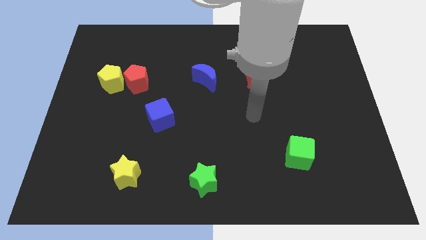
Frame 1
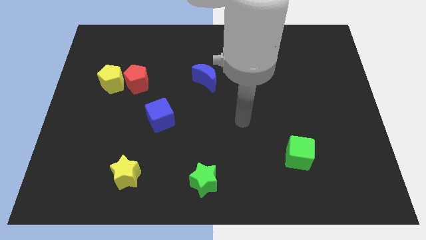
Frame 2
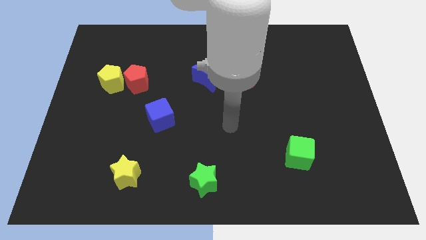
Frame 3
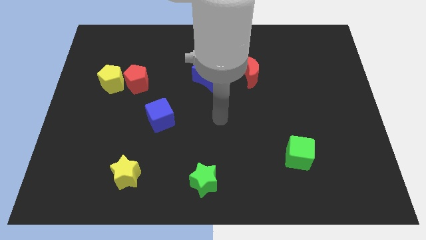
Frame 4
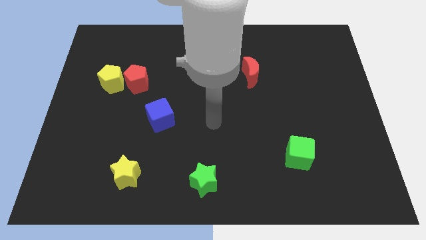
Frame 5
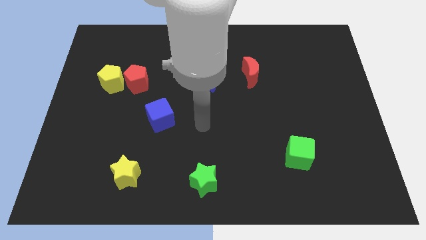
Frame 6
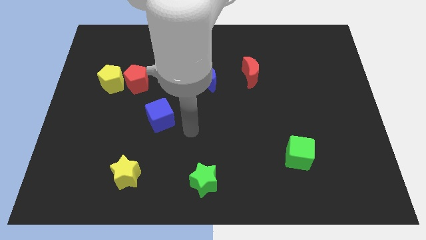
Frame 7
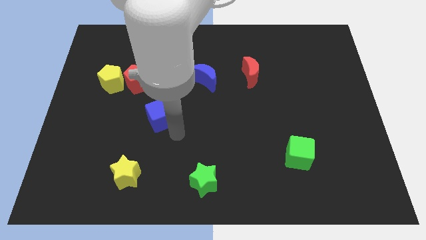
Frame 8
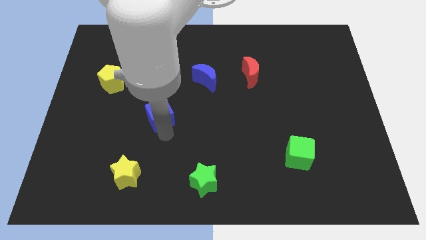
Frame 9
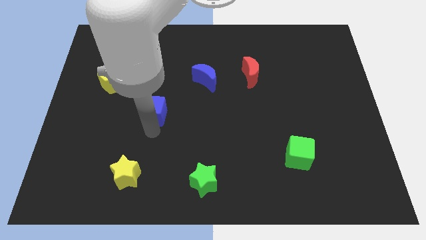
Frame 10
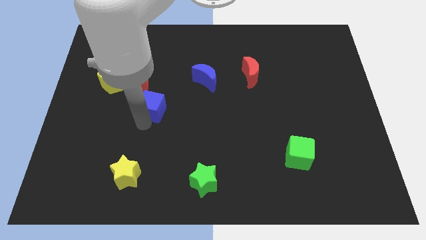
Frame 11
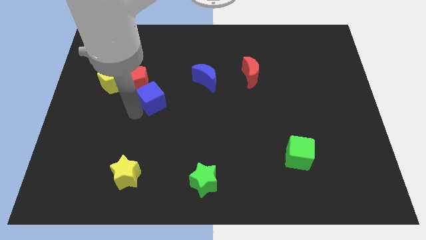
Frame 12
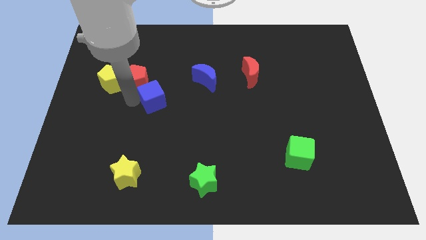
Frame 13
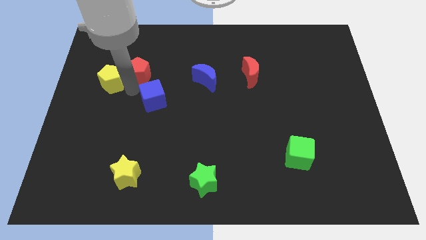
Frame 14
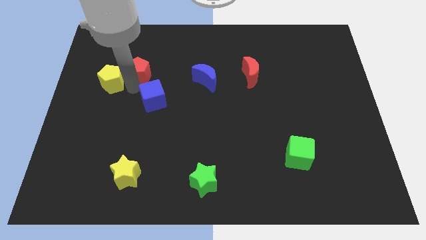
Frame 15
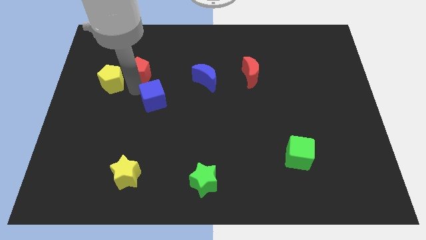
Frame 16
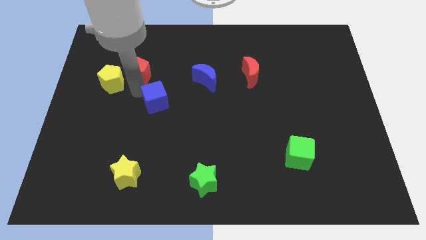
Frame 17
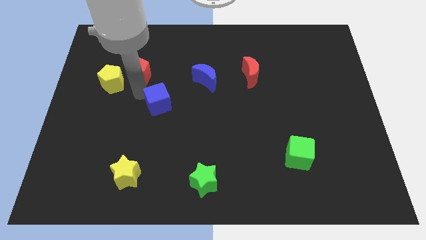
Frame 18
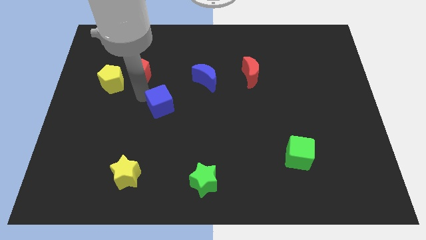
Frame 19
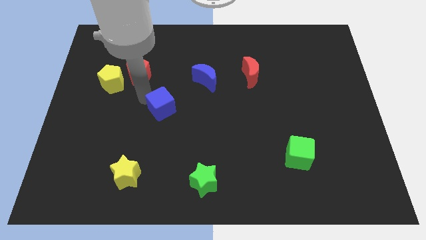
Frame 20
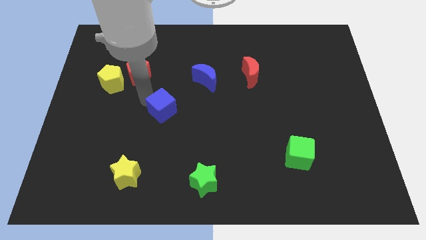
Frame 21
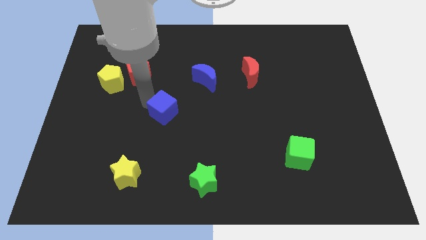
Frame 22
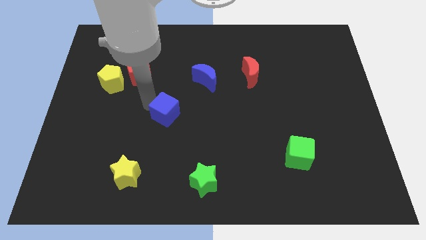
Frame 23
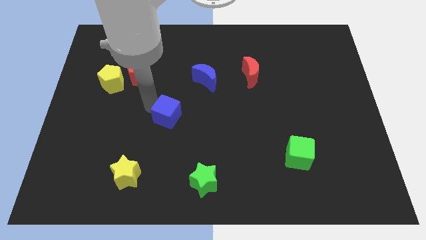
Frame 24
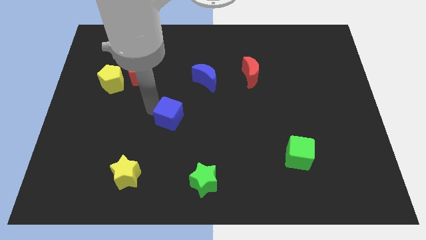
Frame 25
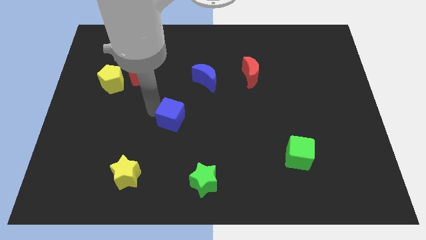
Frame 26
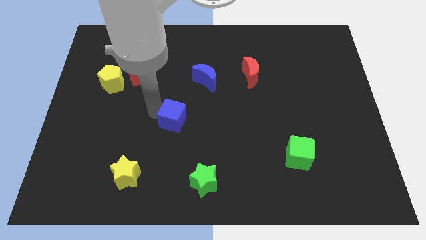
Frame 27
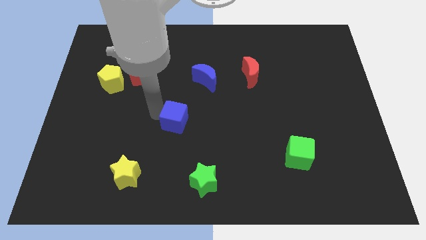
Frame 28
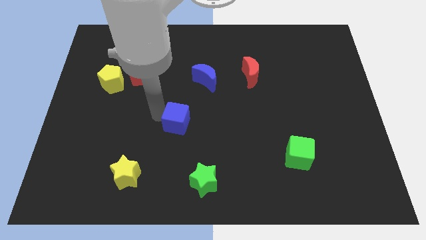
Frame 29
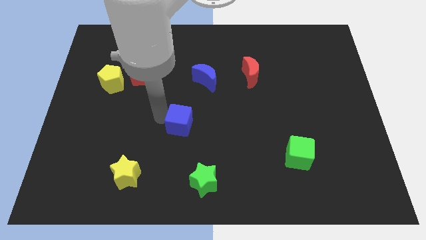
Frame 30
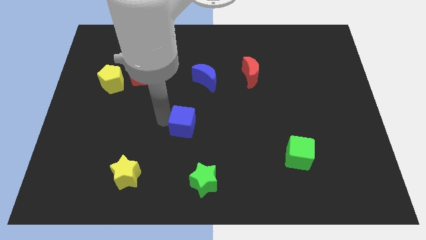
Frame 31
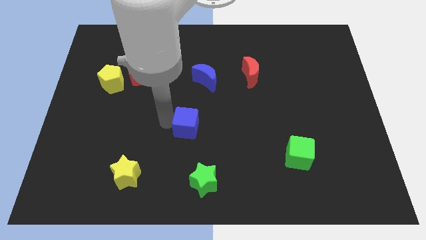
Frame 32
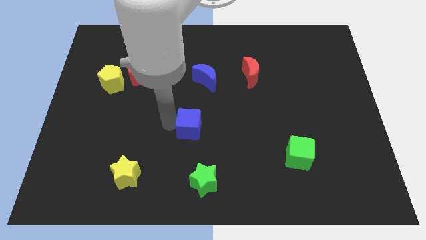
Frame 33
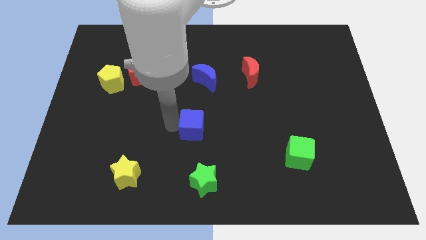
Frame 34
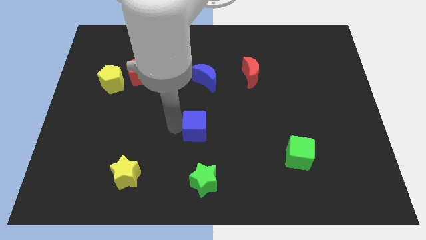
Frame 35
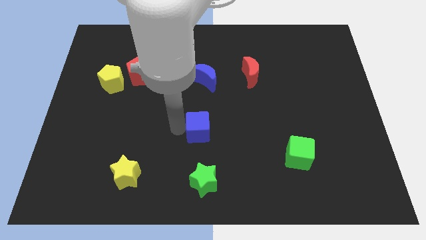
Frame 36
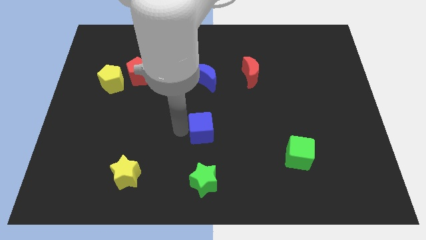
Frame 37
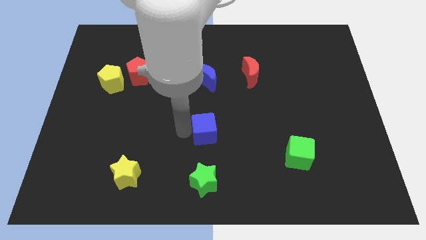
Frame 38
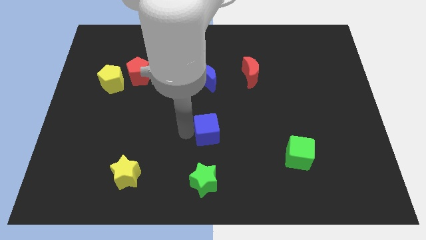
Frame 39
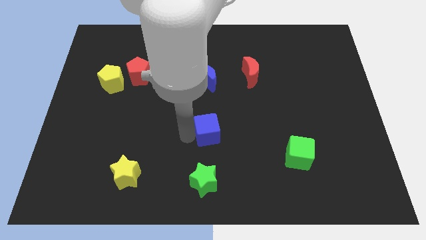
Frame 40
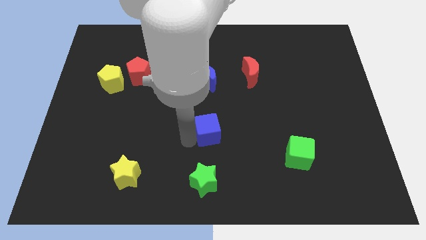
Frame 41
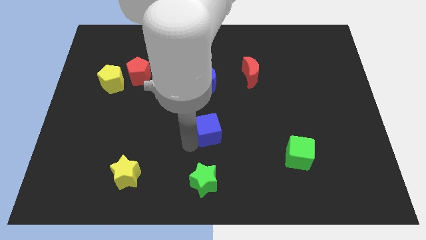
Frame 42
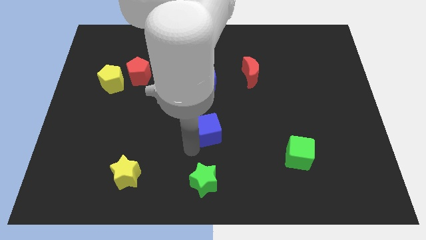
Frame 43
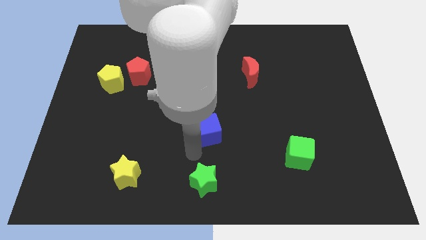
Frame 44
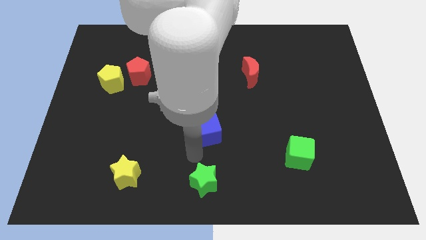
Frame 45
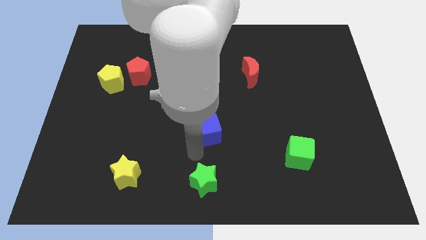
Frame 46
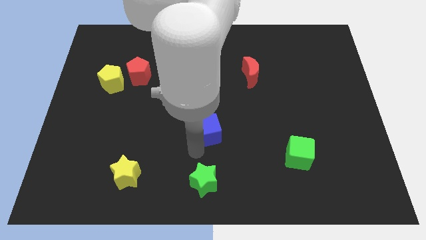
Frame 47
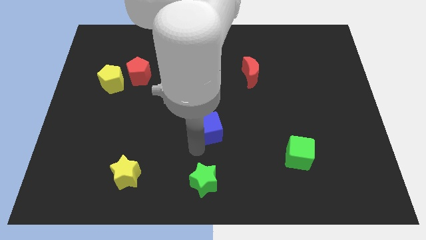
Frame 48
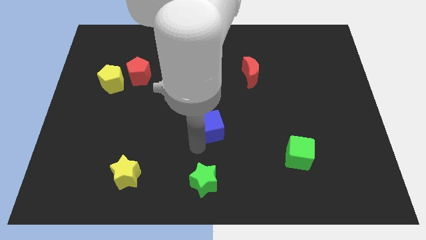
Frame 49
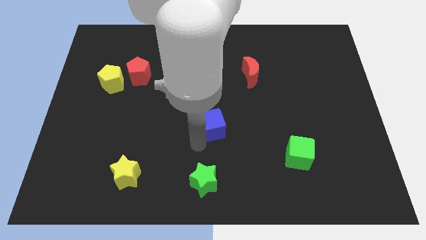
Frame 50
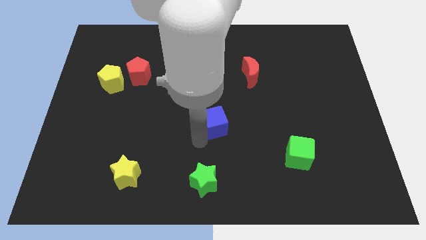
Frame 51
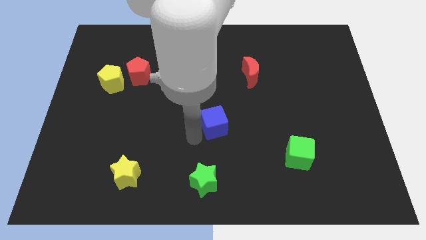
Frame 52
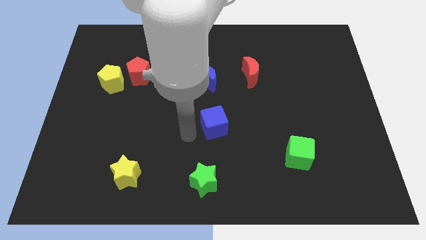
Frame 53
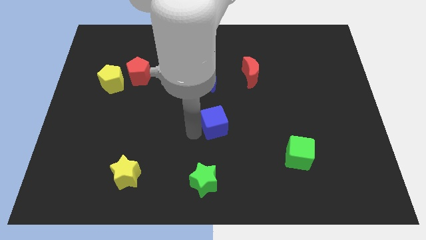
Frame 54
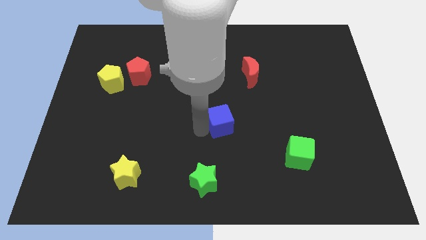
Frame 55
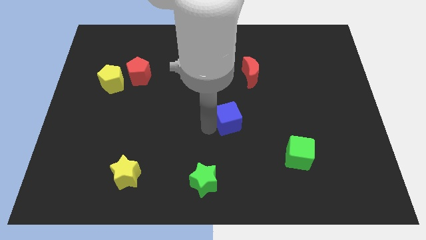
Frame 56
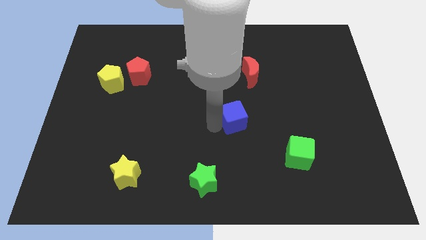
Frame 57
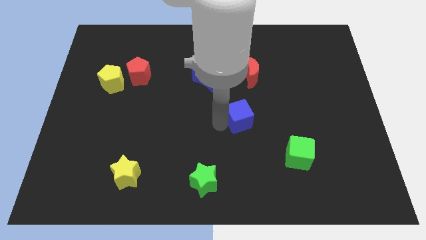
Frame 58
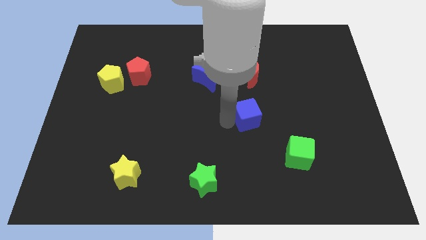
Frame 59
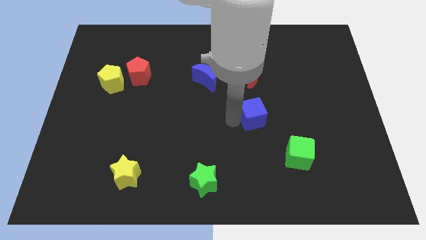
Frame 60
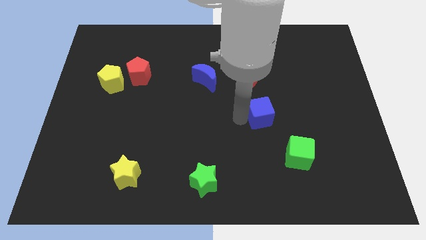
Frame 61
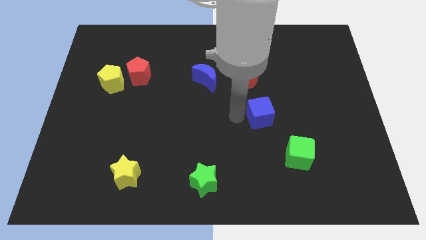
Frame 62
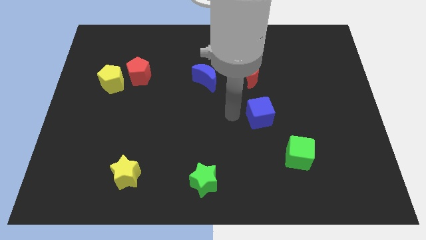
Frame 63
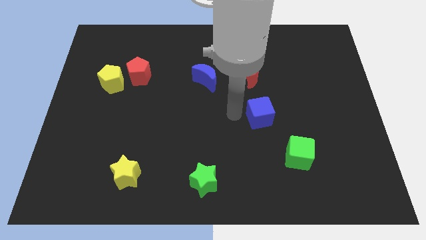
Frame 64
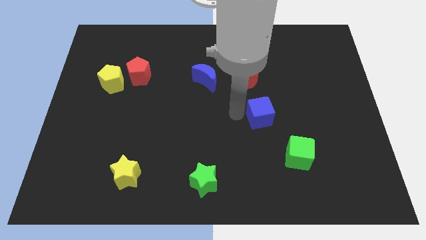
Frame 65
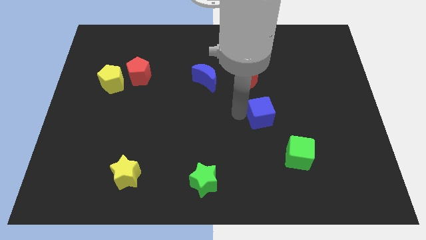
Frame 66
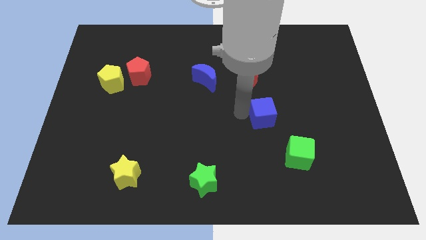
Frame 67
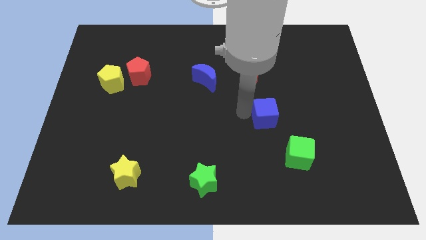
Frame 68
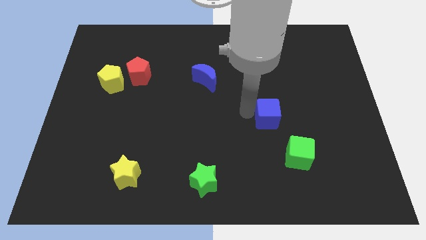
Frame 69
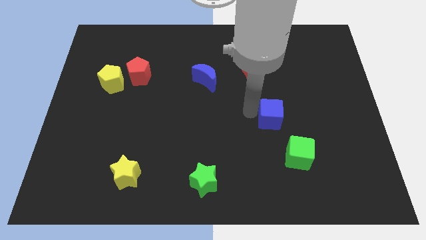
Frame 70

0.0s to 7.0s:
push the blue cube to the top side of the green cube
